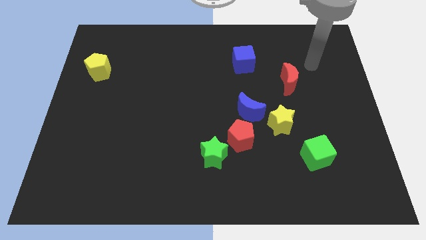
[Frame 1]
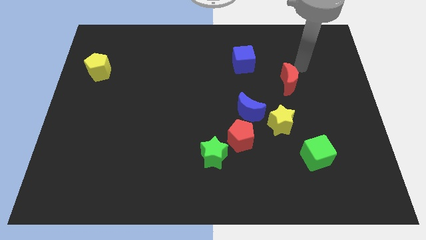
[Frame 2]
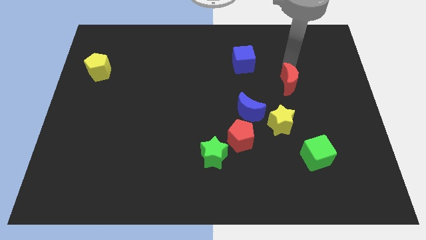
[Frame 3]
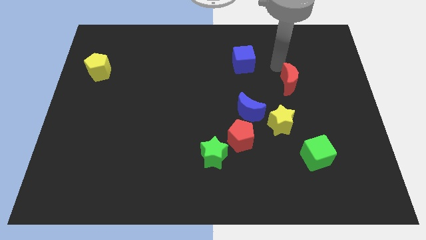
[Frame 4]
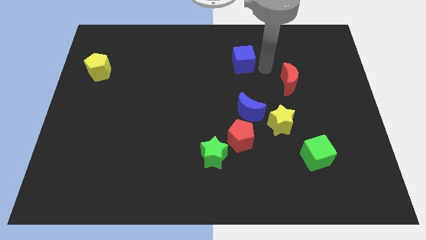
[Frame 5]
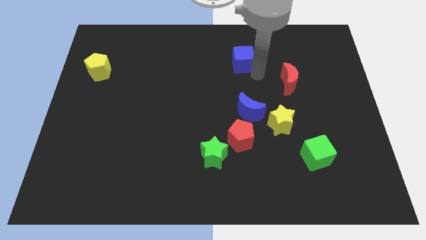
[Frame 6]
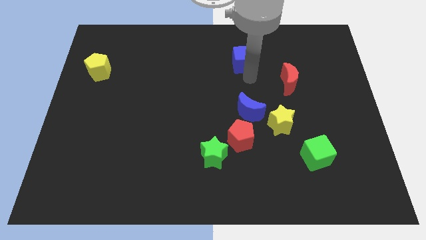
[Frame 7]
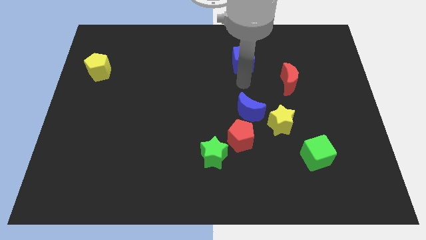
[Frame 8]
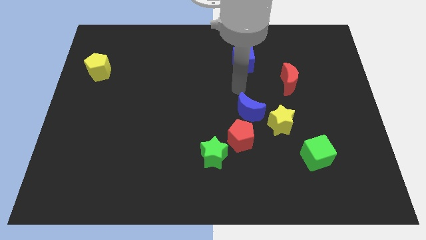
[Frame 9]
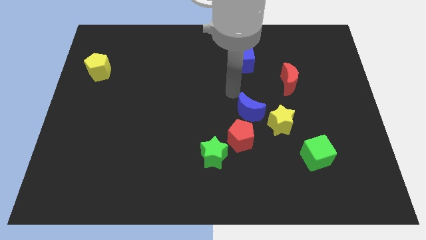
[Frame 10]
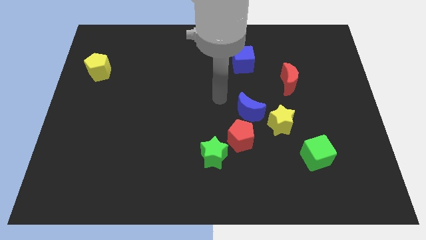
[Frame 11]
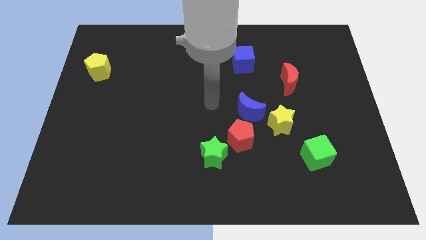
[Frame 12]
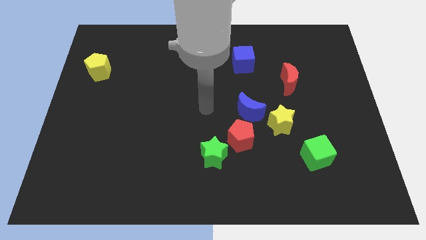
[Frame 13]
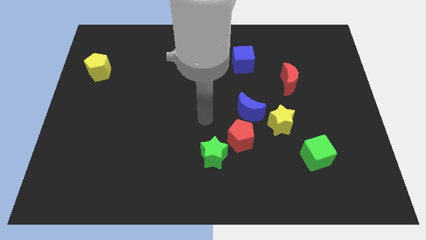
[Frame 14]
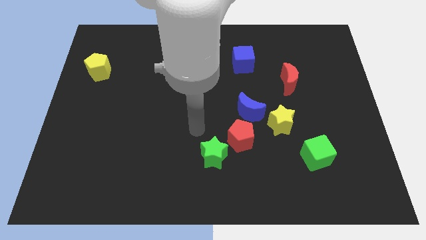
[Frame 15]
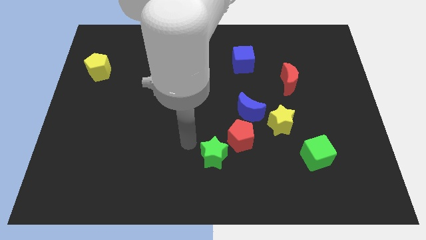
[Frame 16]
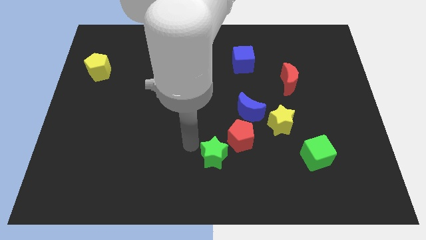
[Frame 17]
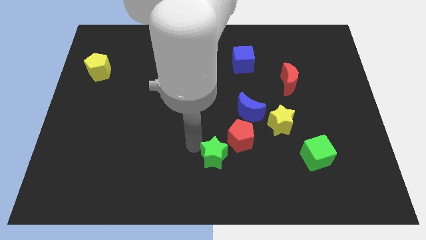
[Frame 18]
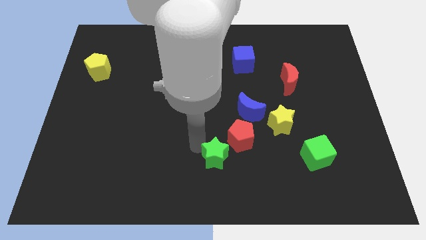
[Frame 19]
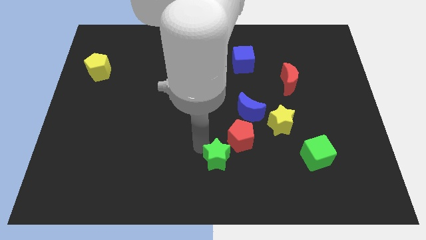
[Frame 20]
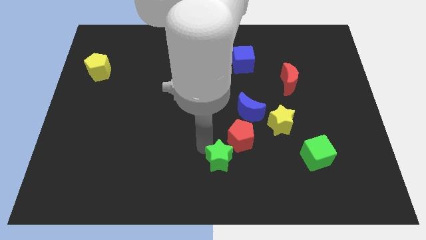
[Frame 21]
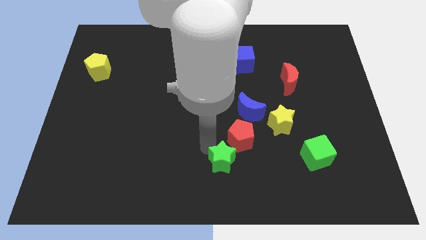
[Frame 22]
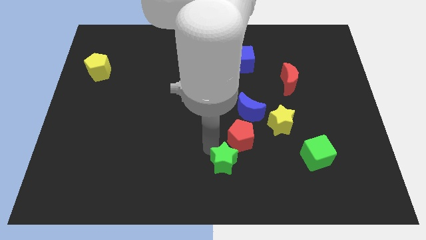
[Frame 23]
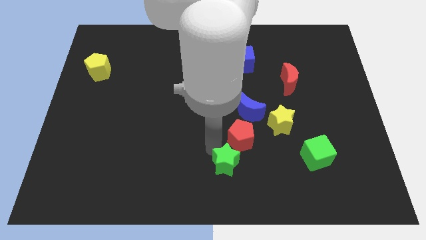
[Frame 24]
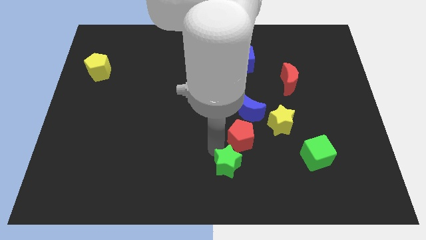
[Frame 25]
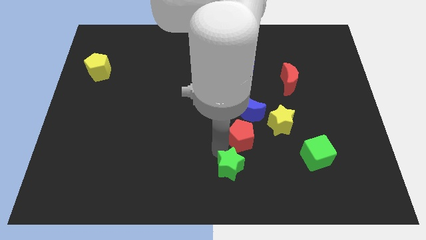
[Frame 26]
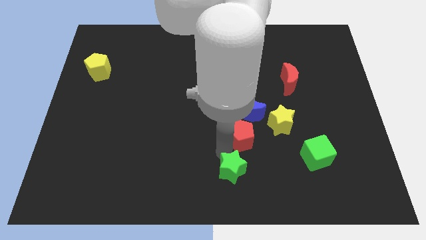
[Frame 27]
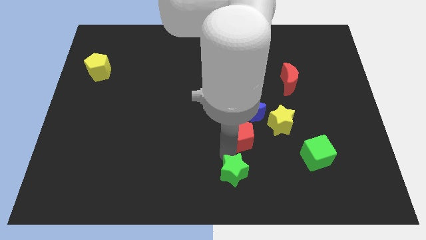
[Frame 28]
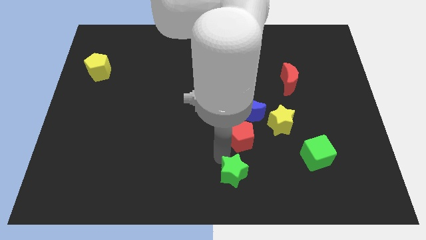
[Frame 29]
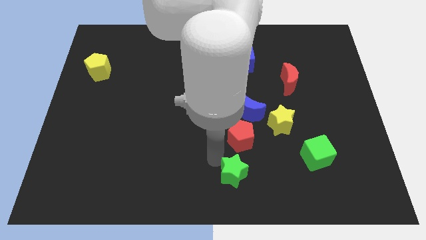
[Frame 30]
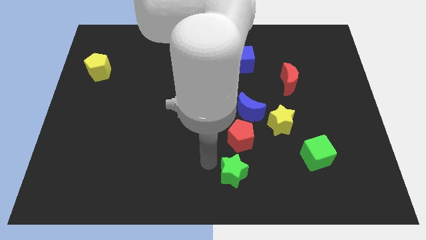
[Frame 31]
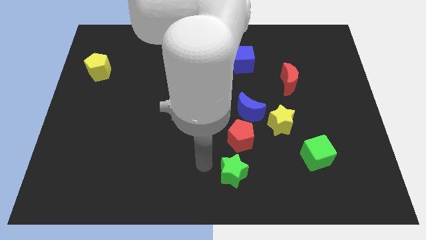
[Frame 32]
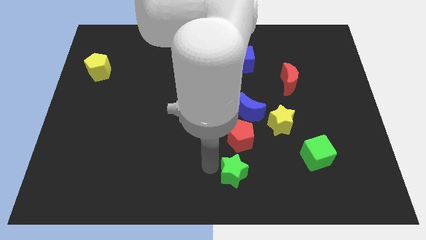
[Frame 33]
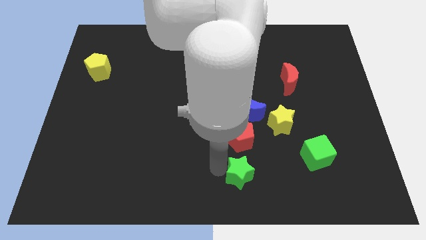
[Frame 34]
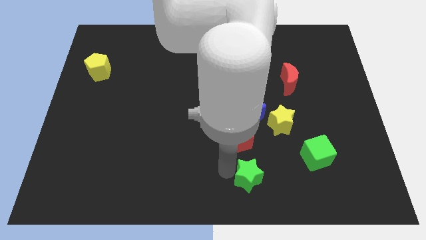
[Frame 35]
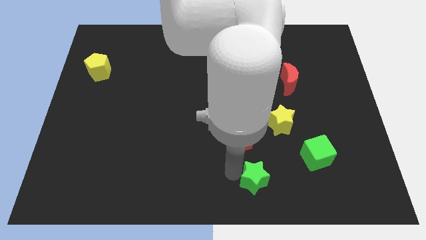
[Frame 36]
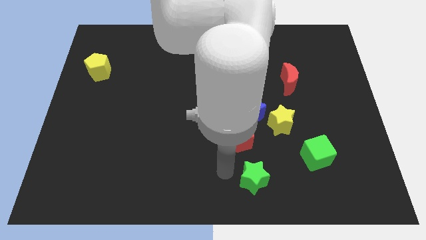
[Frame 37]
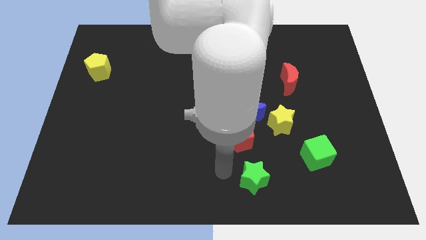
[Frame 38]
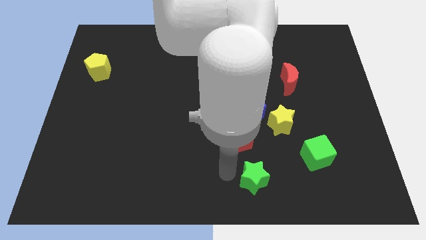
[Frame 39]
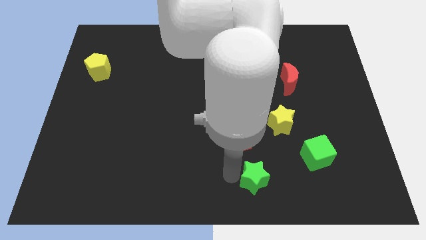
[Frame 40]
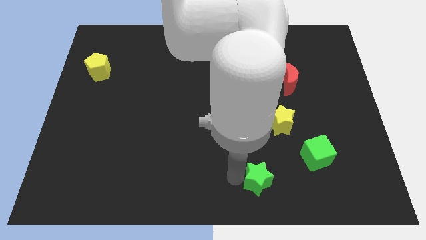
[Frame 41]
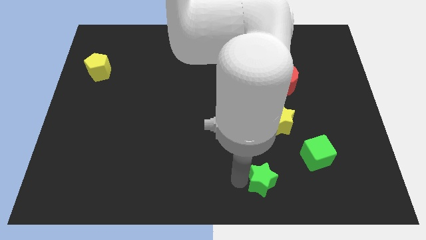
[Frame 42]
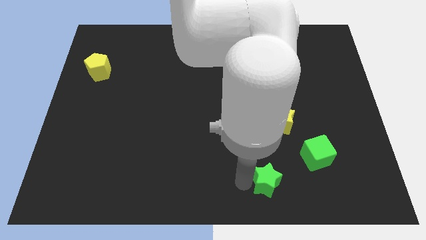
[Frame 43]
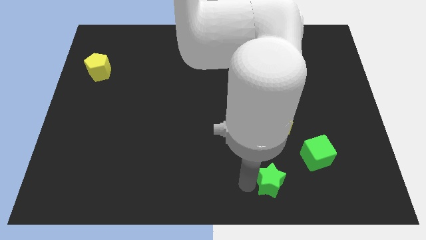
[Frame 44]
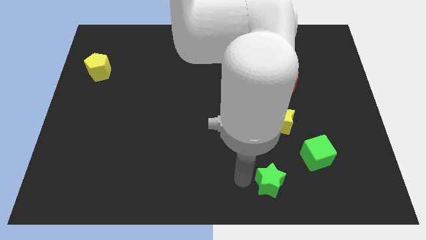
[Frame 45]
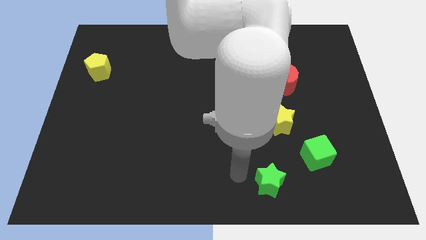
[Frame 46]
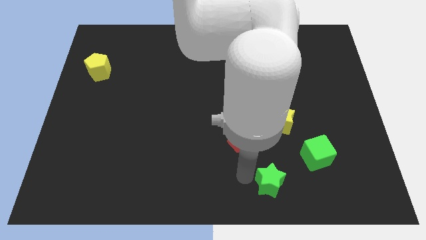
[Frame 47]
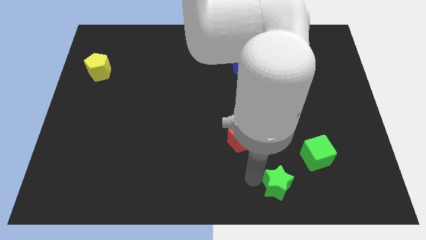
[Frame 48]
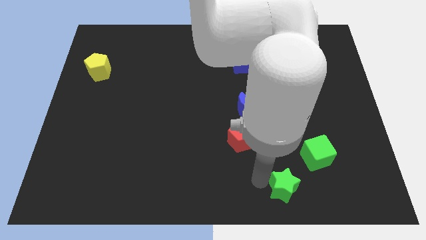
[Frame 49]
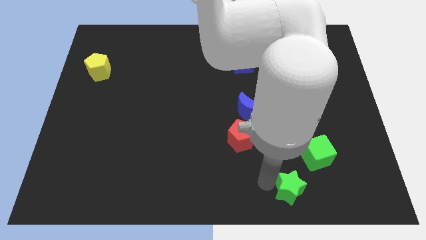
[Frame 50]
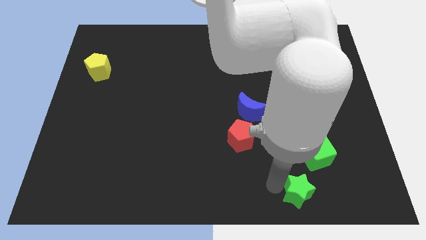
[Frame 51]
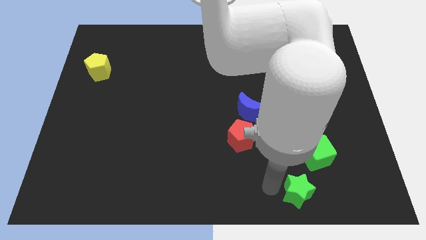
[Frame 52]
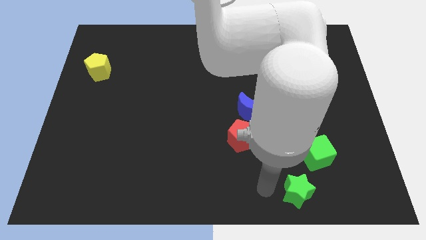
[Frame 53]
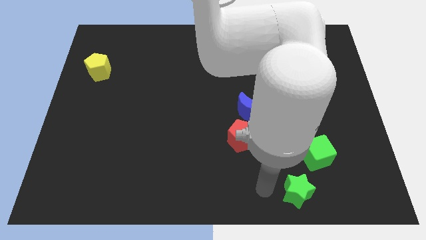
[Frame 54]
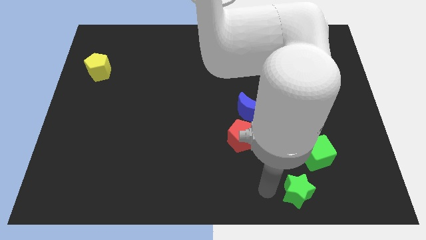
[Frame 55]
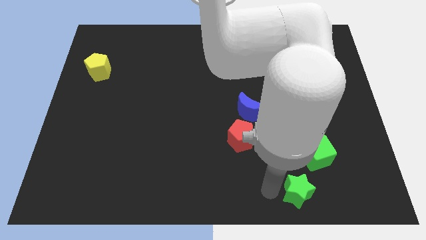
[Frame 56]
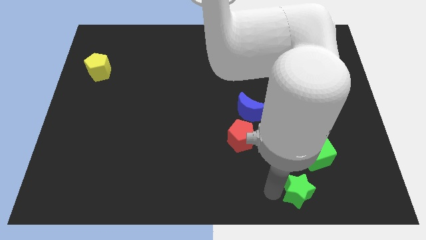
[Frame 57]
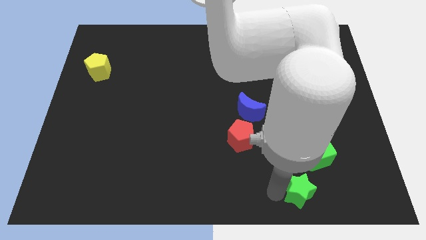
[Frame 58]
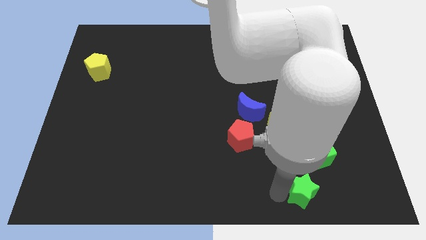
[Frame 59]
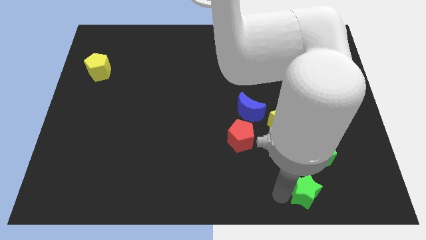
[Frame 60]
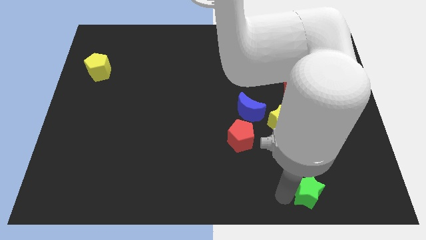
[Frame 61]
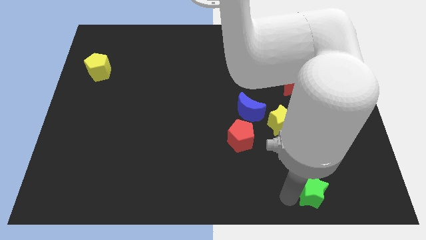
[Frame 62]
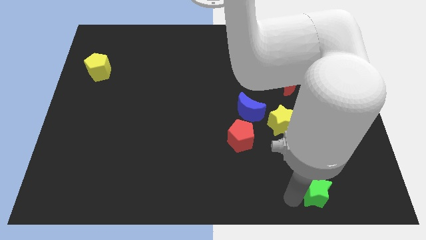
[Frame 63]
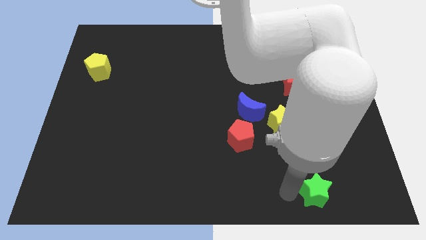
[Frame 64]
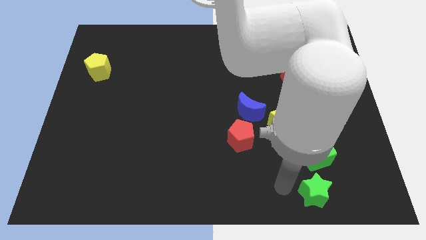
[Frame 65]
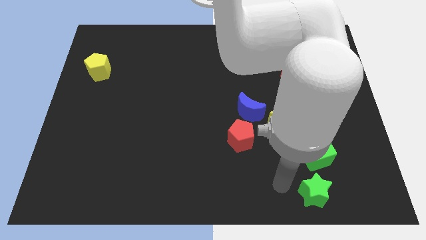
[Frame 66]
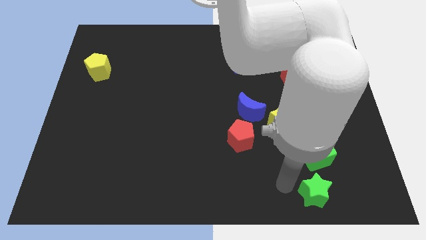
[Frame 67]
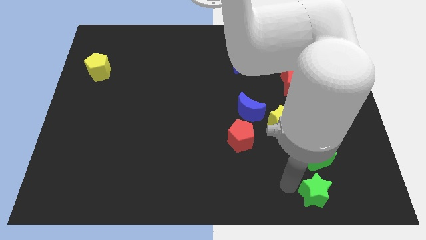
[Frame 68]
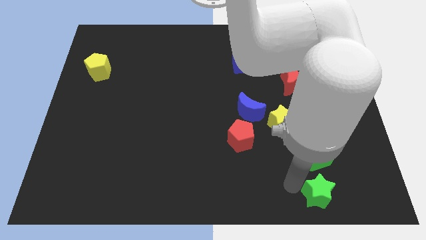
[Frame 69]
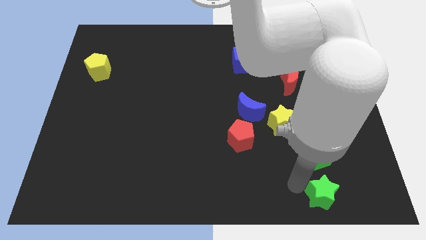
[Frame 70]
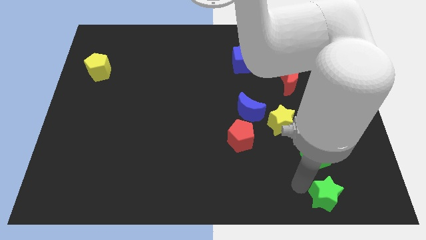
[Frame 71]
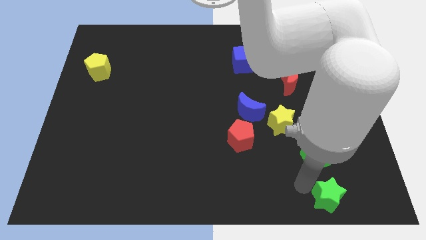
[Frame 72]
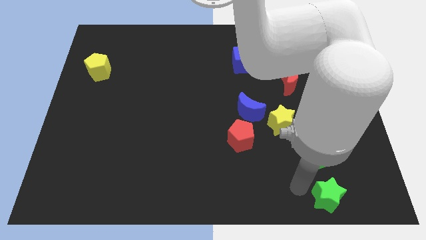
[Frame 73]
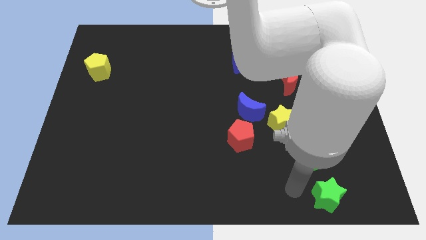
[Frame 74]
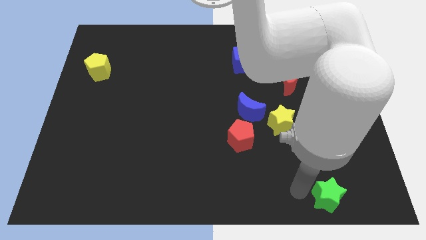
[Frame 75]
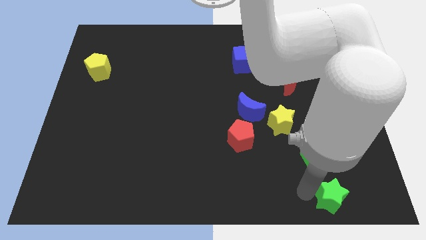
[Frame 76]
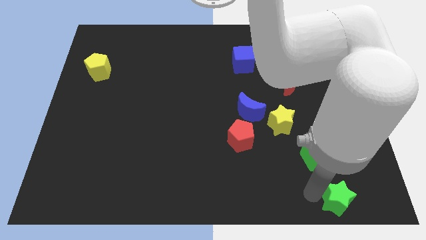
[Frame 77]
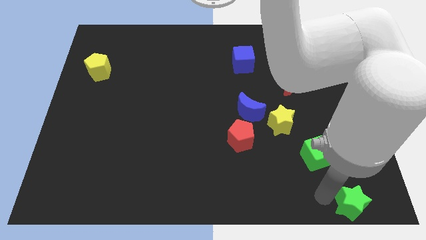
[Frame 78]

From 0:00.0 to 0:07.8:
push the green star to the bottom right corner
